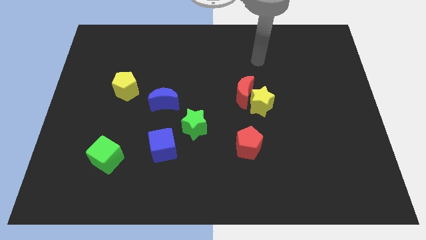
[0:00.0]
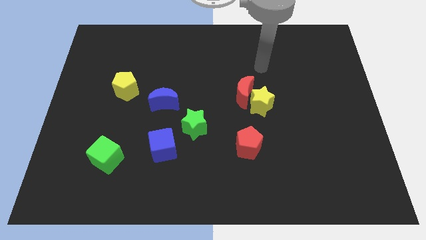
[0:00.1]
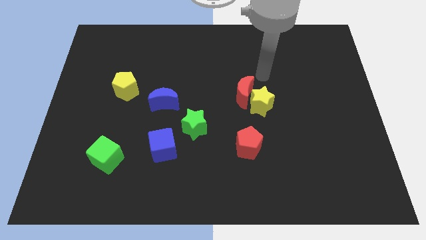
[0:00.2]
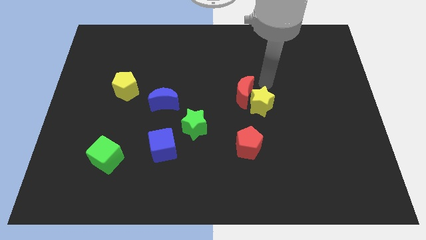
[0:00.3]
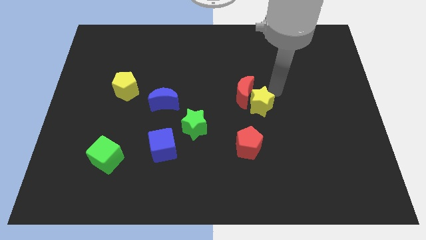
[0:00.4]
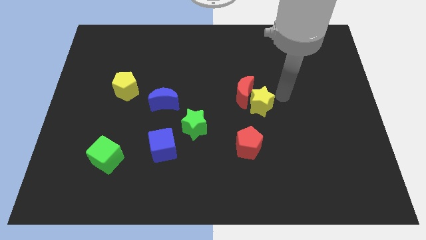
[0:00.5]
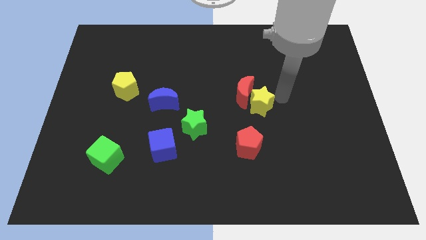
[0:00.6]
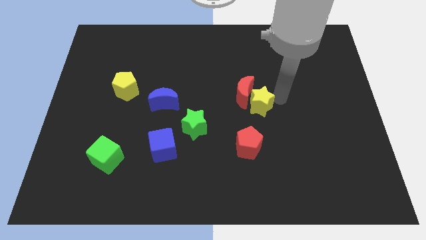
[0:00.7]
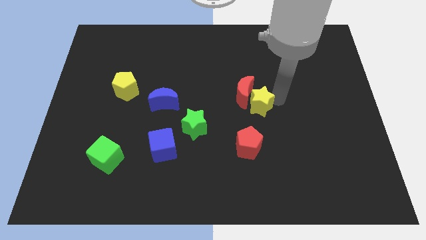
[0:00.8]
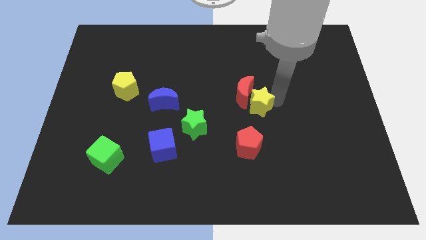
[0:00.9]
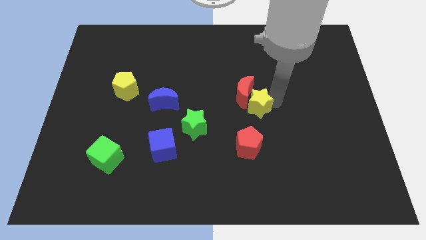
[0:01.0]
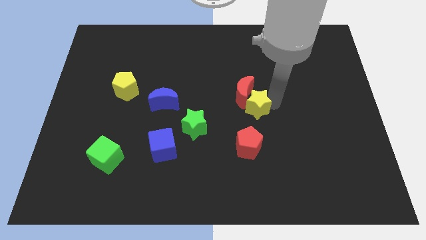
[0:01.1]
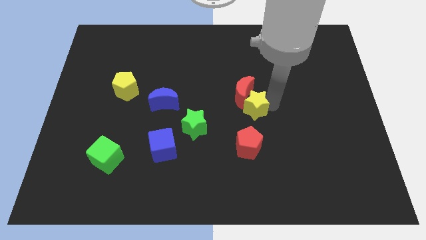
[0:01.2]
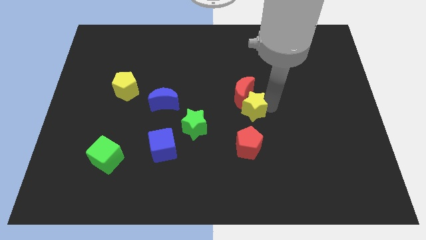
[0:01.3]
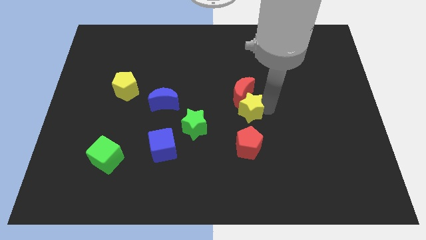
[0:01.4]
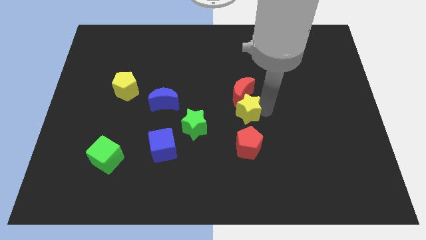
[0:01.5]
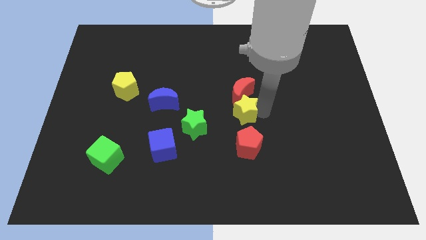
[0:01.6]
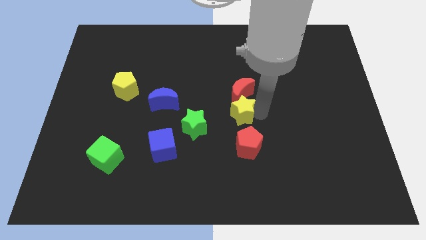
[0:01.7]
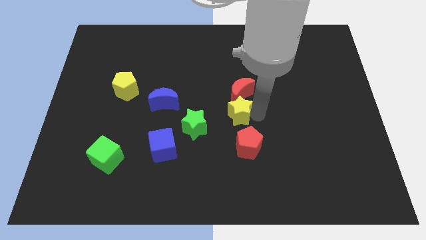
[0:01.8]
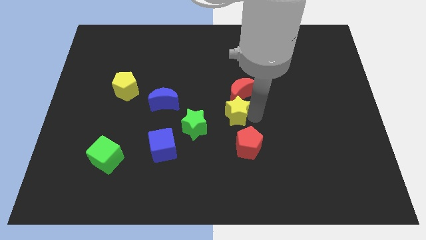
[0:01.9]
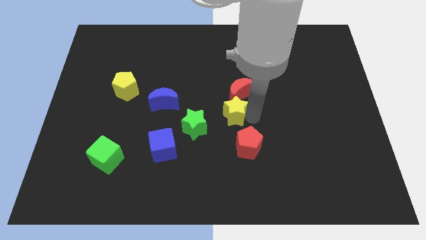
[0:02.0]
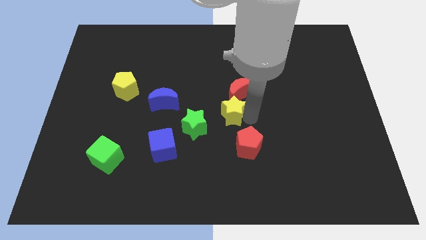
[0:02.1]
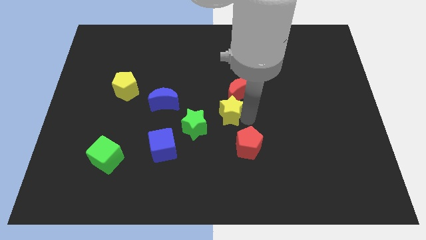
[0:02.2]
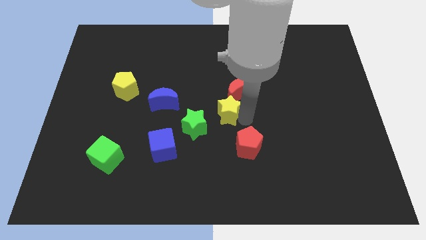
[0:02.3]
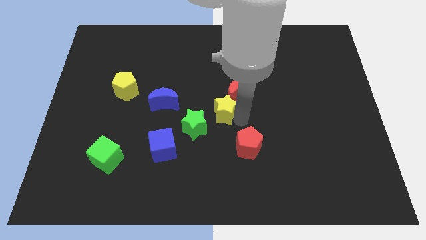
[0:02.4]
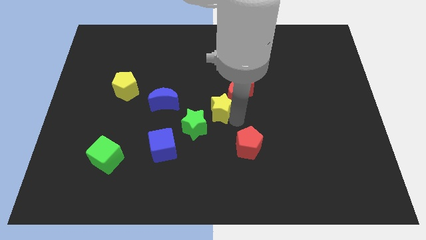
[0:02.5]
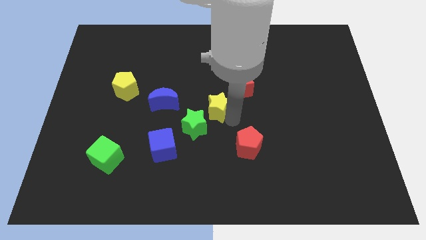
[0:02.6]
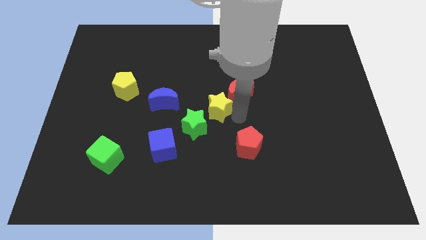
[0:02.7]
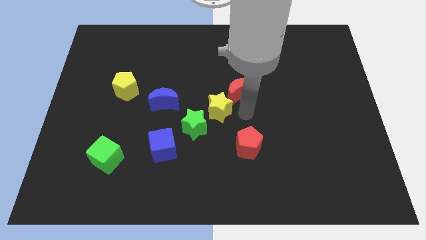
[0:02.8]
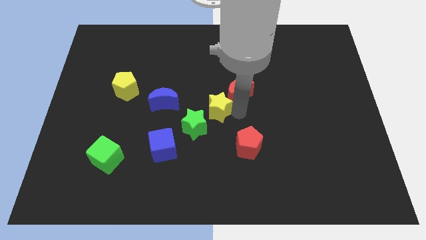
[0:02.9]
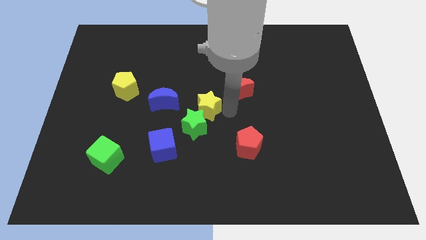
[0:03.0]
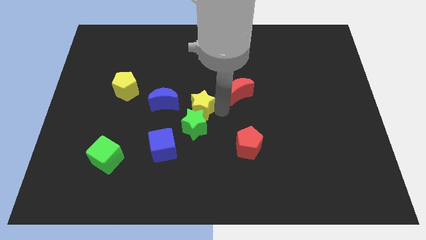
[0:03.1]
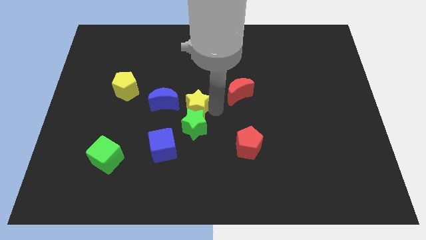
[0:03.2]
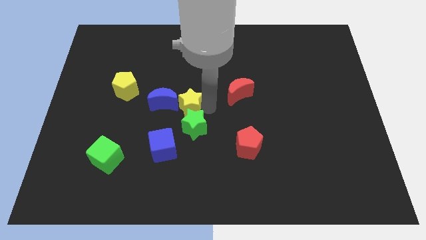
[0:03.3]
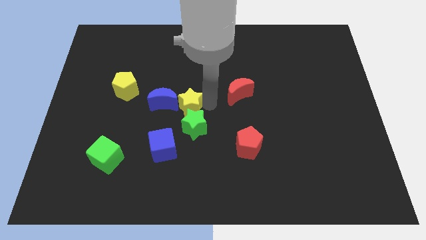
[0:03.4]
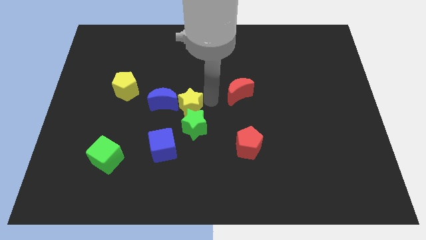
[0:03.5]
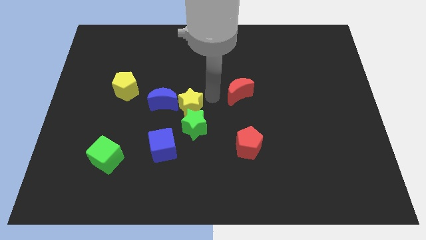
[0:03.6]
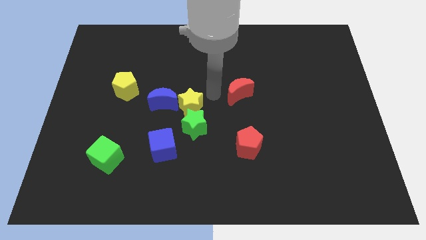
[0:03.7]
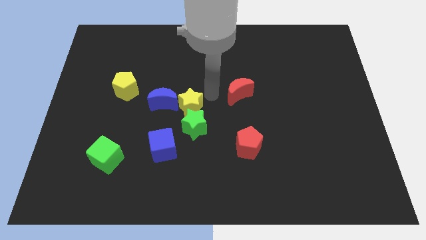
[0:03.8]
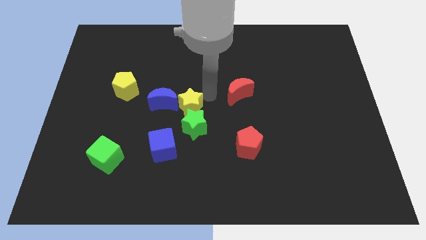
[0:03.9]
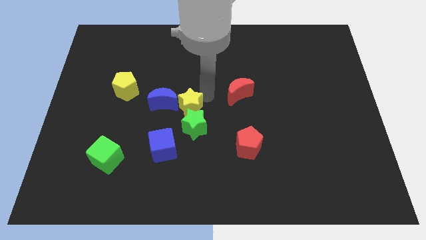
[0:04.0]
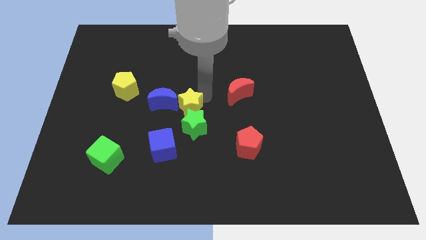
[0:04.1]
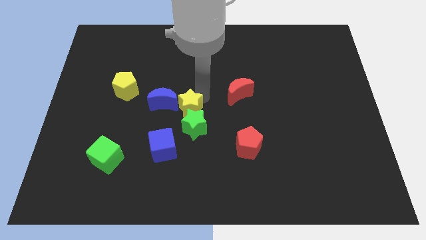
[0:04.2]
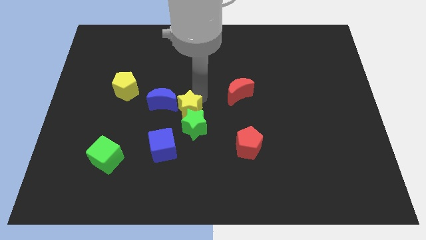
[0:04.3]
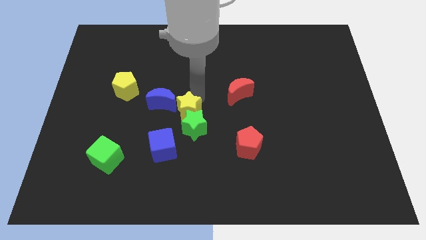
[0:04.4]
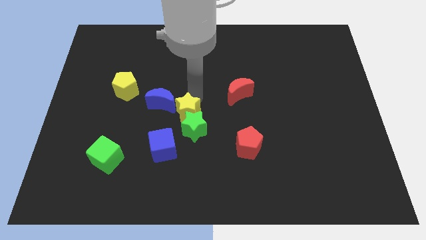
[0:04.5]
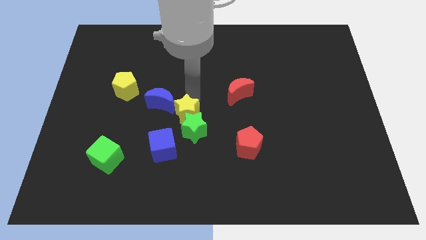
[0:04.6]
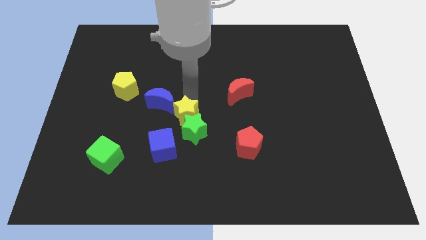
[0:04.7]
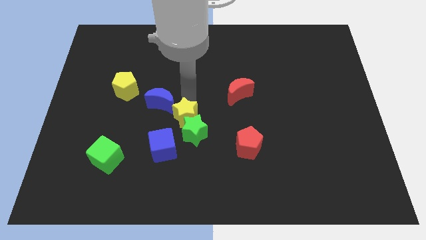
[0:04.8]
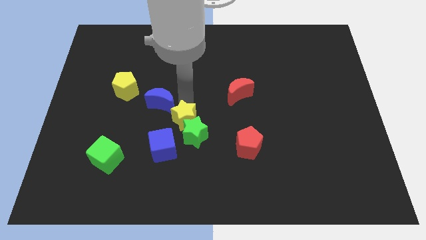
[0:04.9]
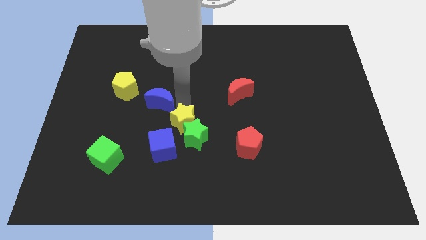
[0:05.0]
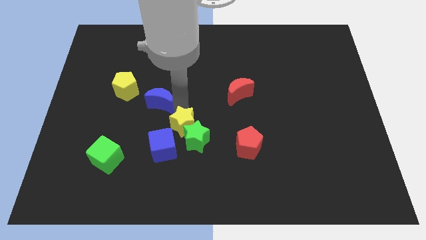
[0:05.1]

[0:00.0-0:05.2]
push the yellow star left of the green star

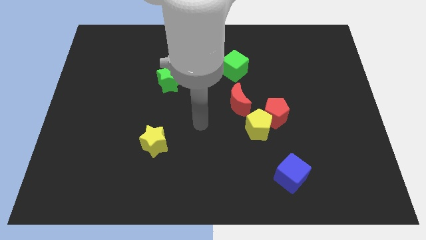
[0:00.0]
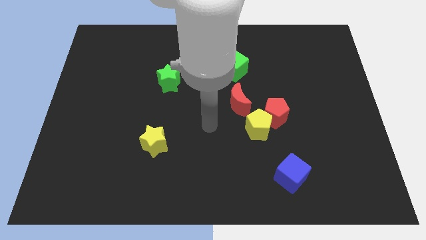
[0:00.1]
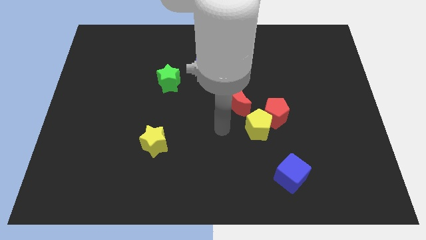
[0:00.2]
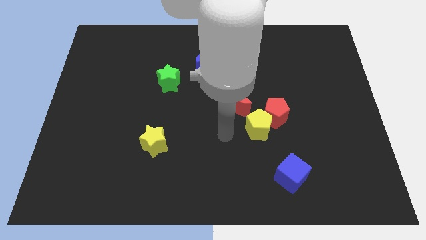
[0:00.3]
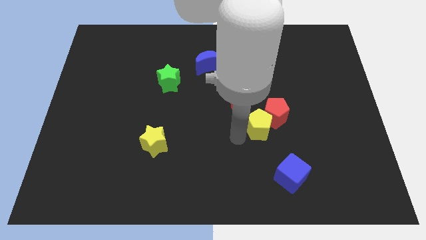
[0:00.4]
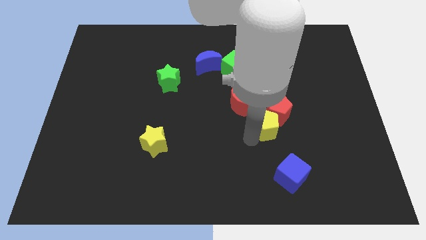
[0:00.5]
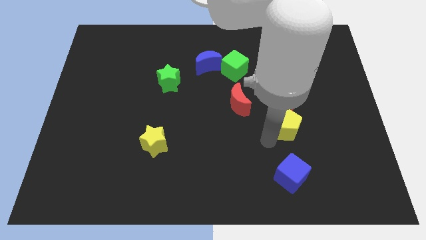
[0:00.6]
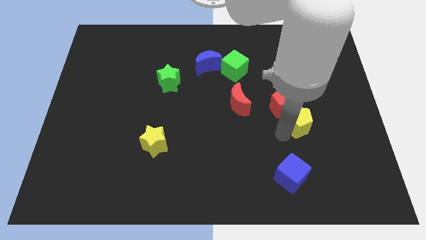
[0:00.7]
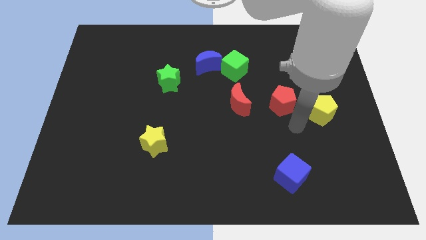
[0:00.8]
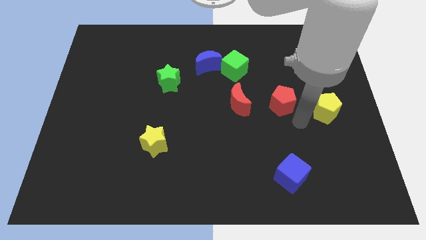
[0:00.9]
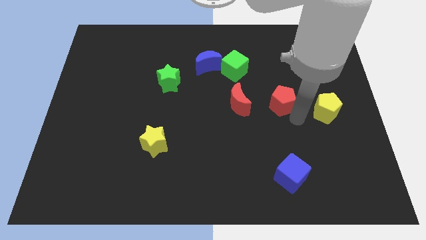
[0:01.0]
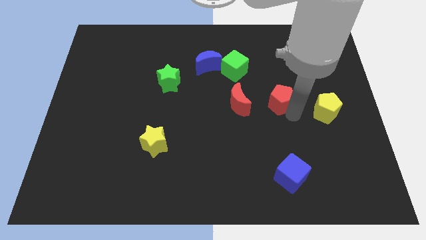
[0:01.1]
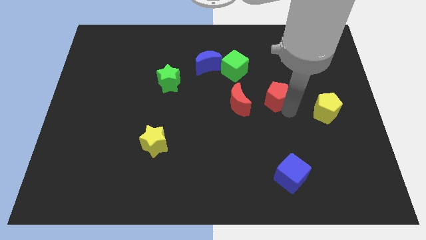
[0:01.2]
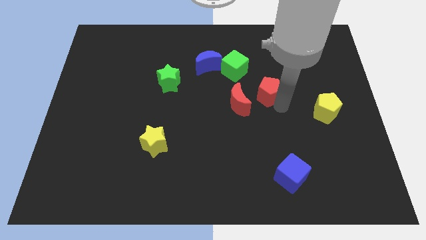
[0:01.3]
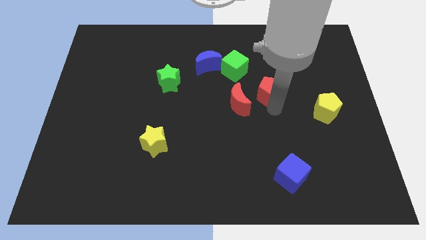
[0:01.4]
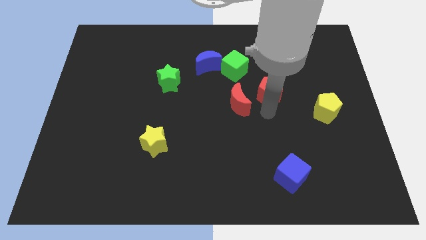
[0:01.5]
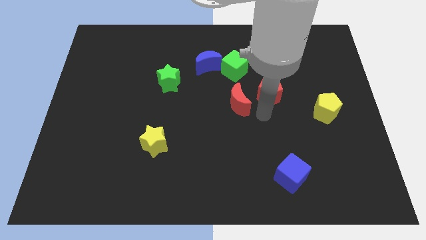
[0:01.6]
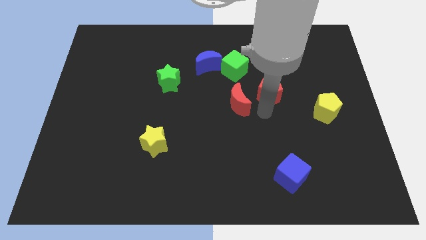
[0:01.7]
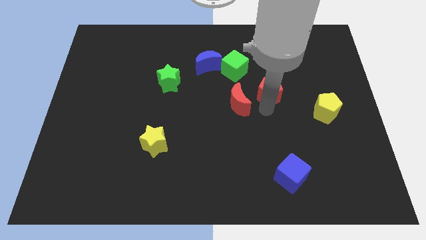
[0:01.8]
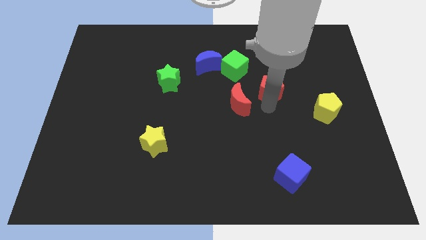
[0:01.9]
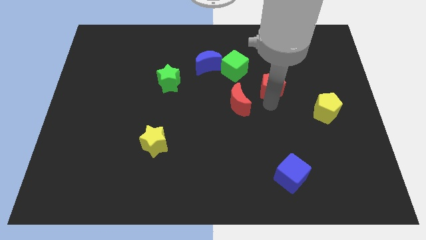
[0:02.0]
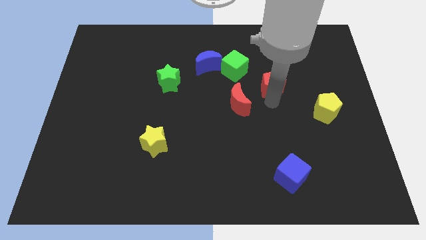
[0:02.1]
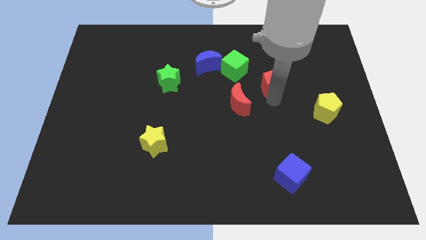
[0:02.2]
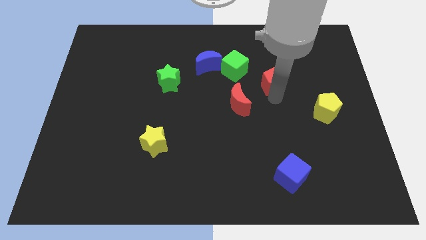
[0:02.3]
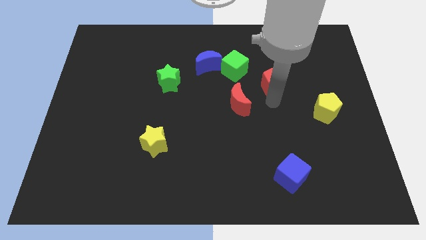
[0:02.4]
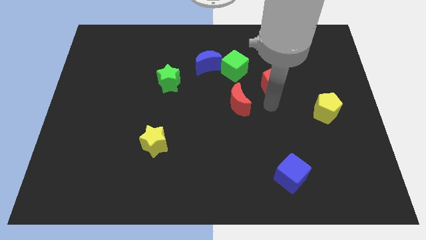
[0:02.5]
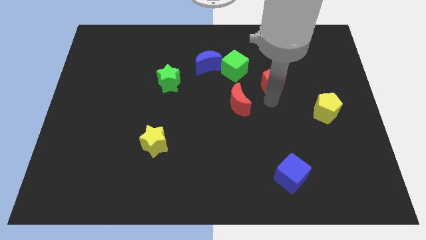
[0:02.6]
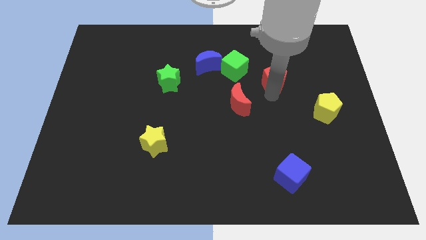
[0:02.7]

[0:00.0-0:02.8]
move the red pentagon to the right side of the green cube
